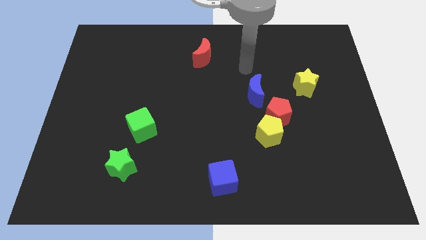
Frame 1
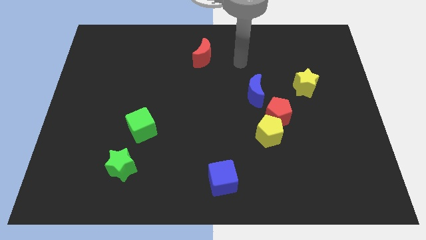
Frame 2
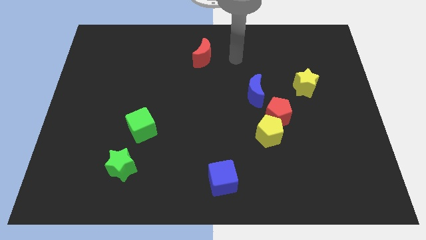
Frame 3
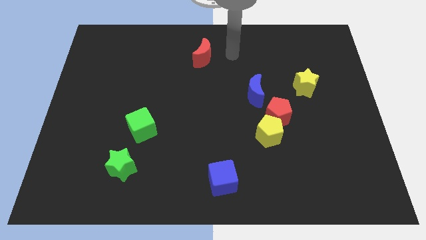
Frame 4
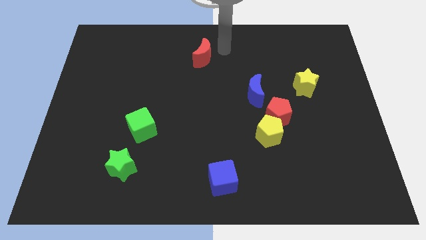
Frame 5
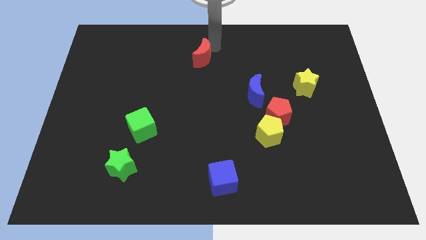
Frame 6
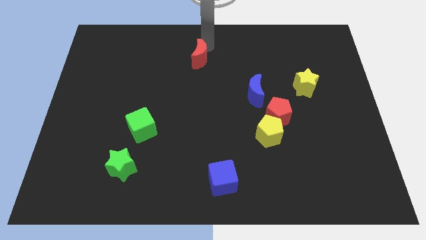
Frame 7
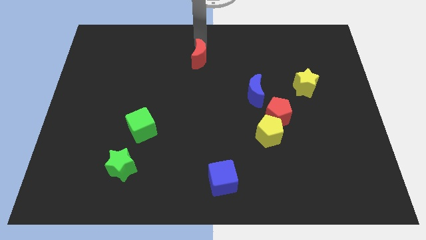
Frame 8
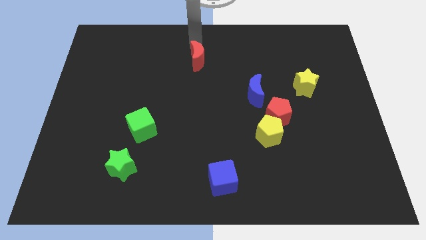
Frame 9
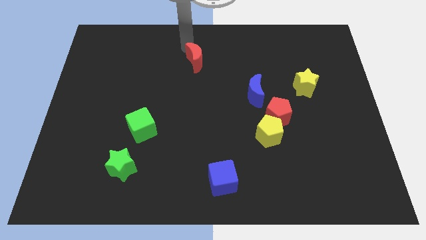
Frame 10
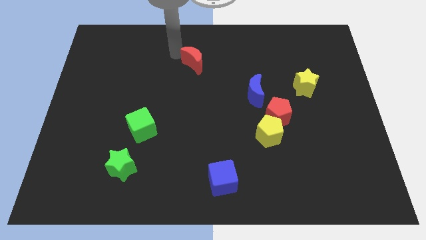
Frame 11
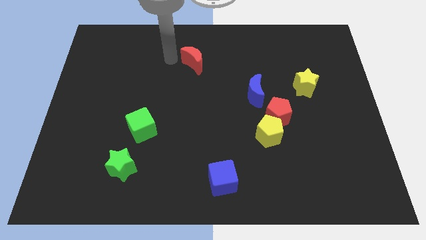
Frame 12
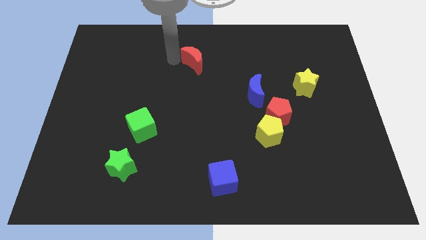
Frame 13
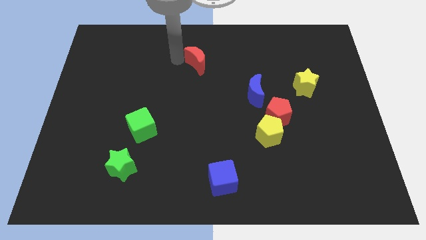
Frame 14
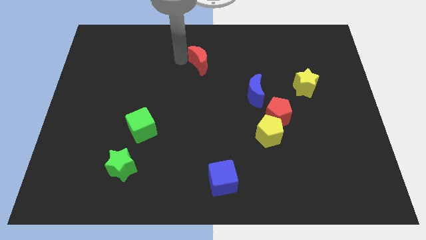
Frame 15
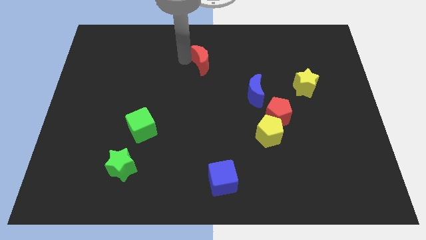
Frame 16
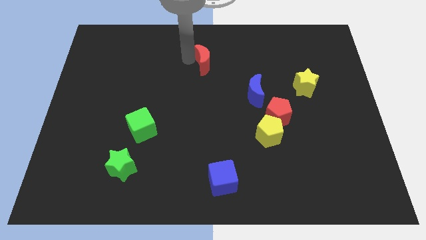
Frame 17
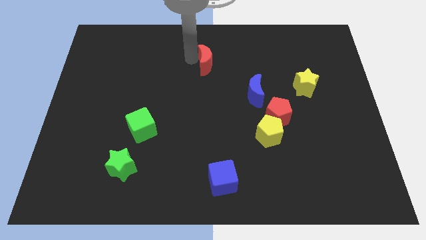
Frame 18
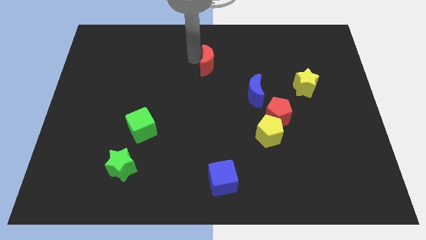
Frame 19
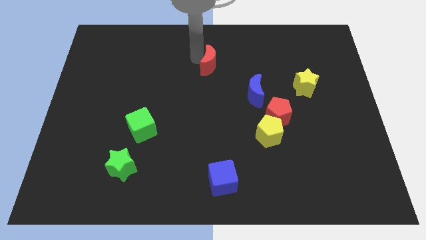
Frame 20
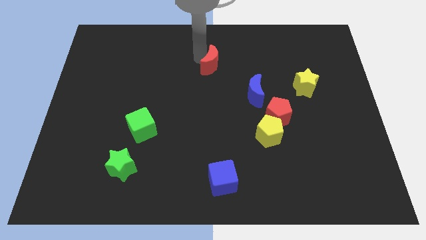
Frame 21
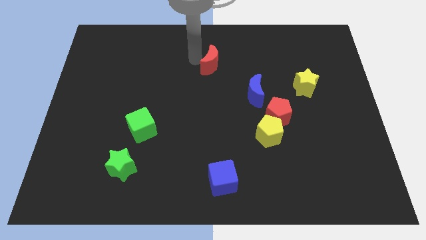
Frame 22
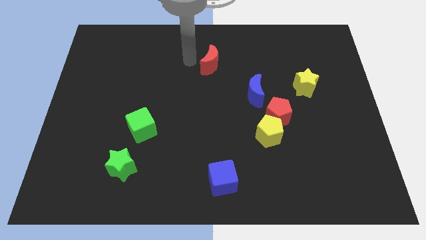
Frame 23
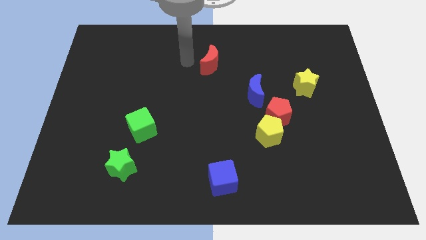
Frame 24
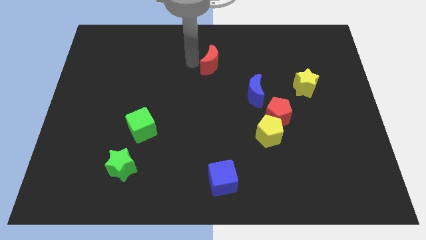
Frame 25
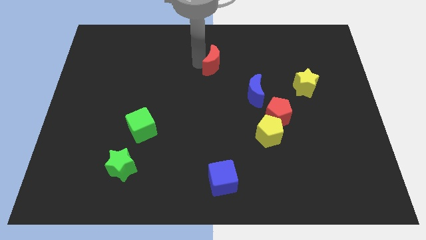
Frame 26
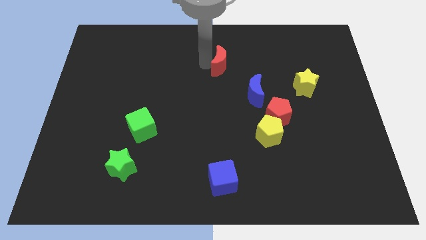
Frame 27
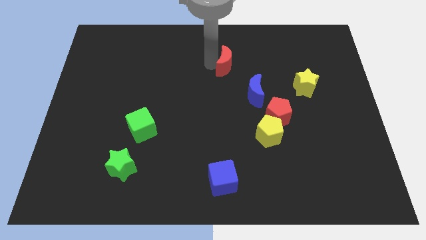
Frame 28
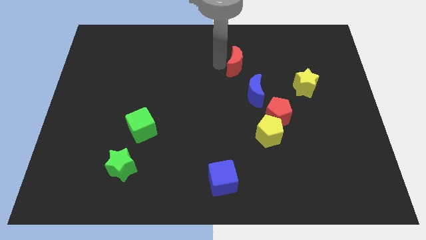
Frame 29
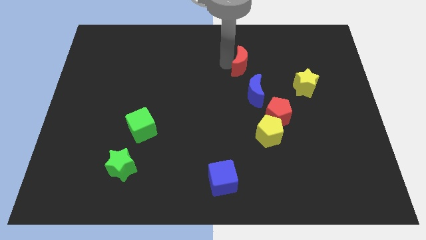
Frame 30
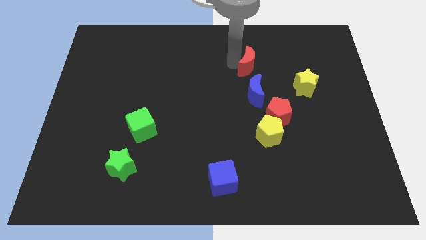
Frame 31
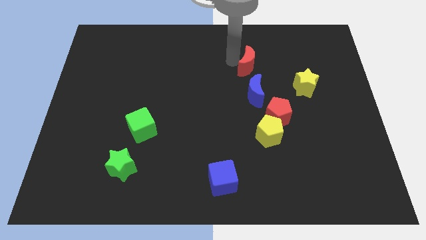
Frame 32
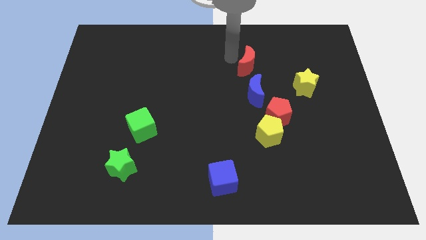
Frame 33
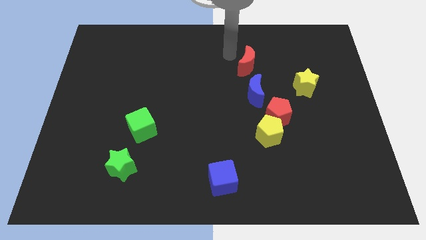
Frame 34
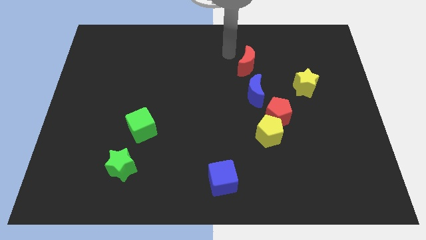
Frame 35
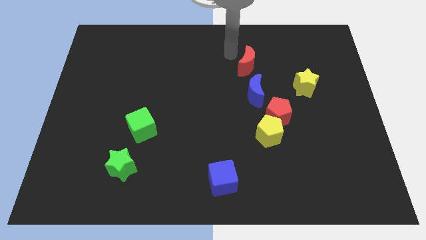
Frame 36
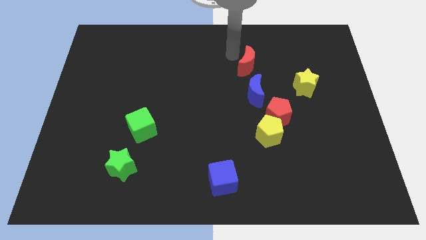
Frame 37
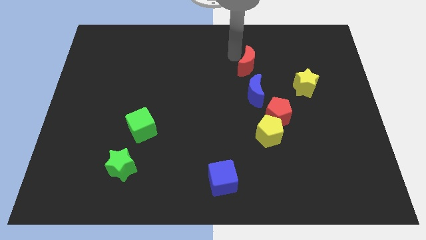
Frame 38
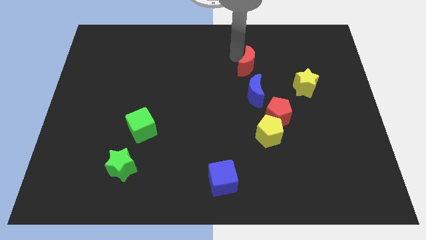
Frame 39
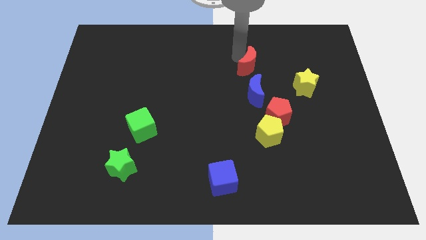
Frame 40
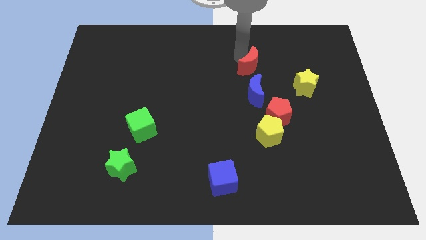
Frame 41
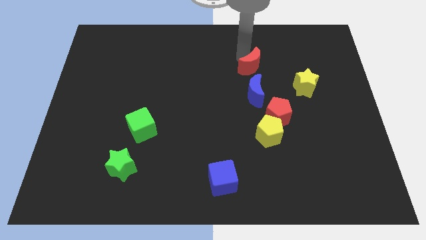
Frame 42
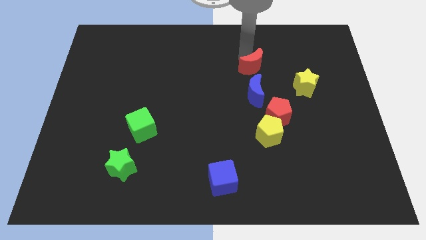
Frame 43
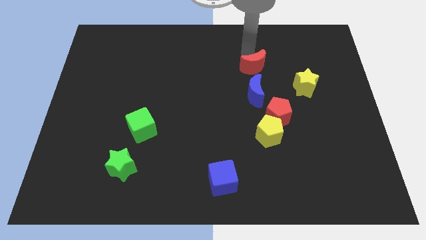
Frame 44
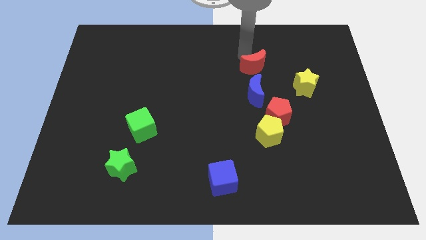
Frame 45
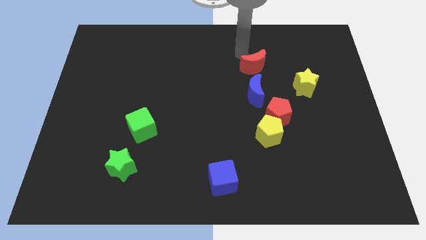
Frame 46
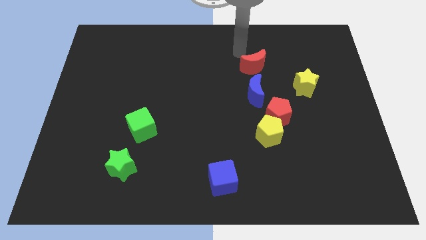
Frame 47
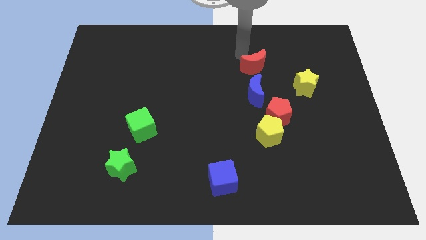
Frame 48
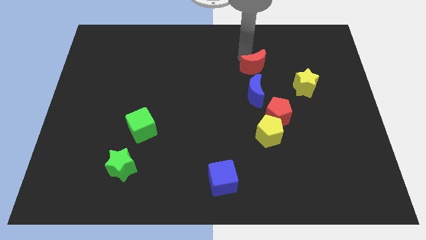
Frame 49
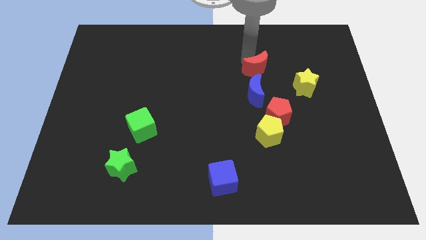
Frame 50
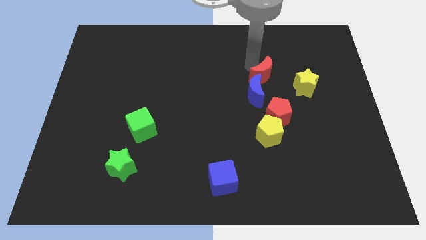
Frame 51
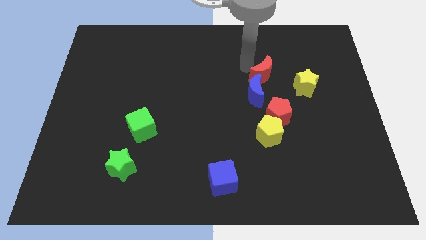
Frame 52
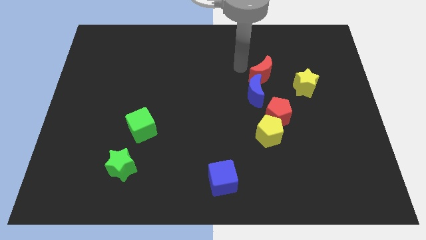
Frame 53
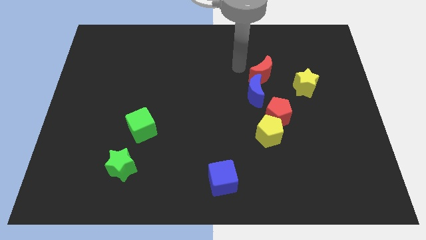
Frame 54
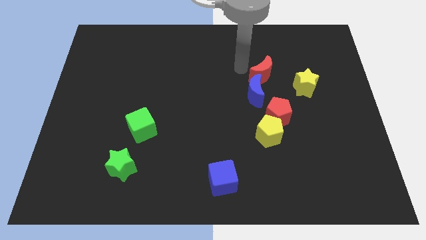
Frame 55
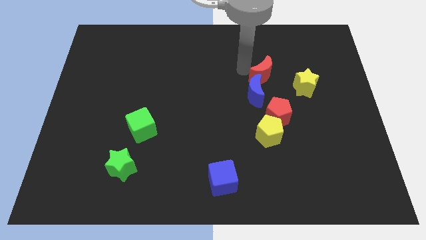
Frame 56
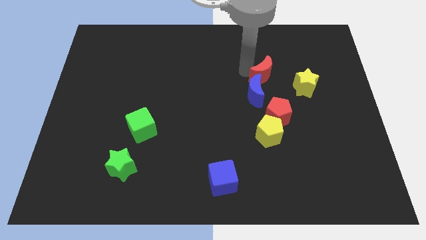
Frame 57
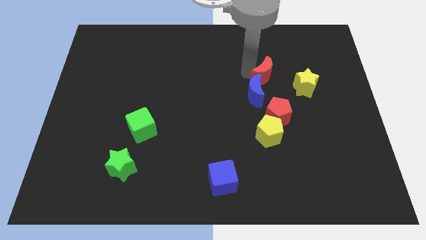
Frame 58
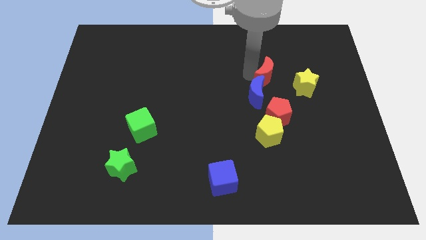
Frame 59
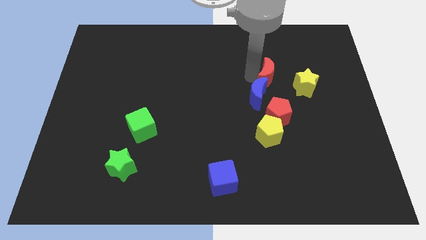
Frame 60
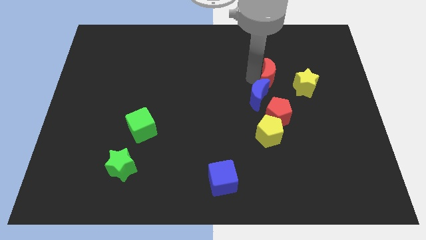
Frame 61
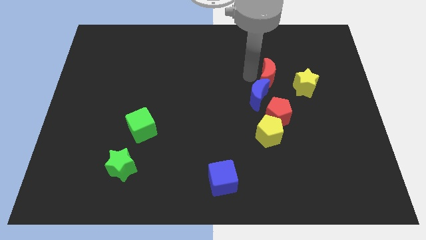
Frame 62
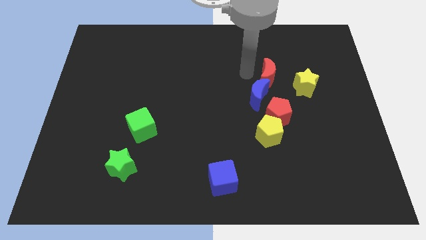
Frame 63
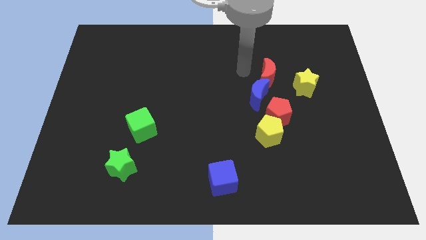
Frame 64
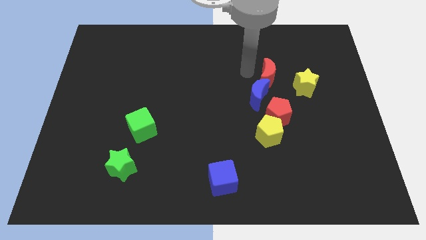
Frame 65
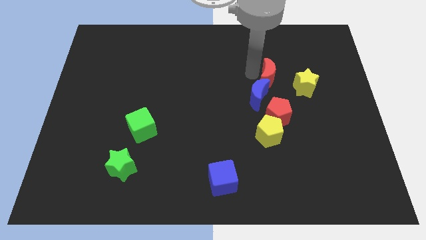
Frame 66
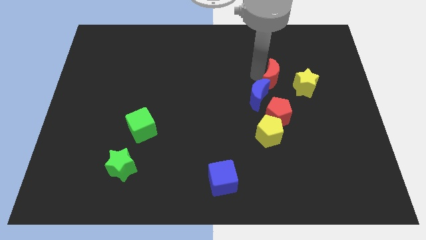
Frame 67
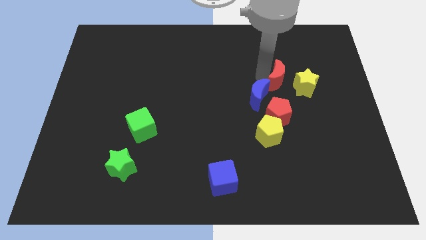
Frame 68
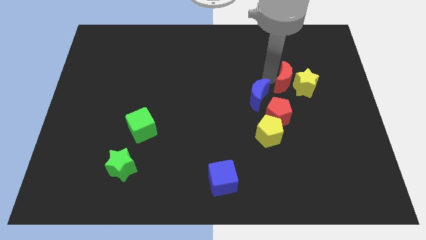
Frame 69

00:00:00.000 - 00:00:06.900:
slide the red moon next to the yellow star
